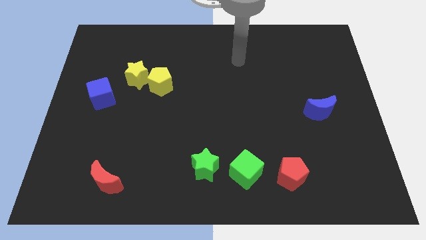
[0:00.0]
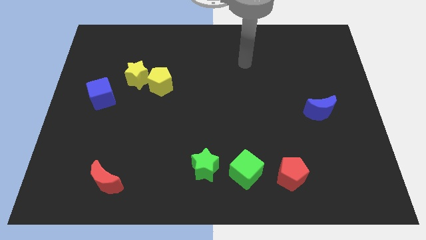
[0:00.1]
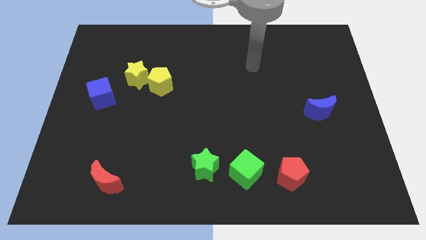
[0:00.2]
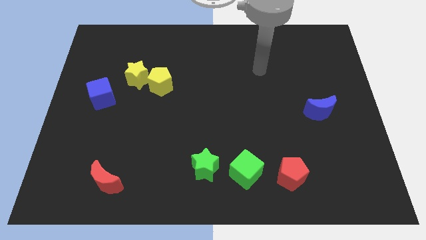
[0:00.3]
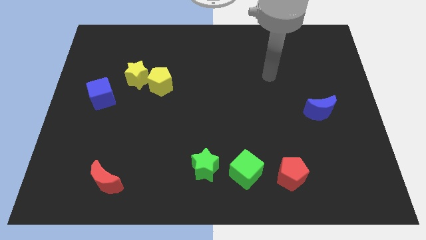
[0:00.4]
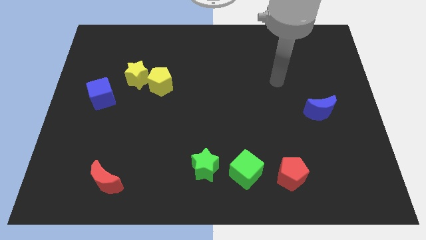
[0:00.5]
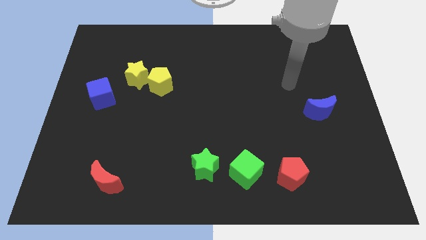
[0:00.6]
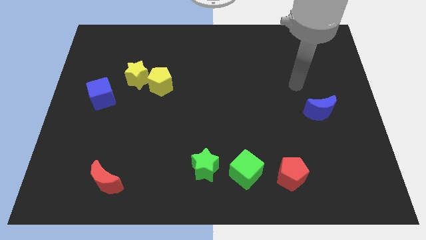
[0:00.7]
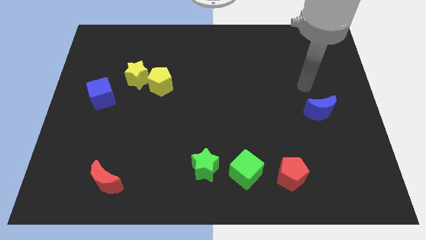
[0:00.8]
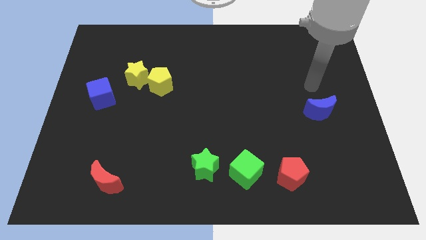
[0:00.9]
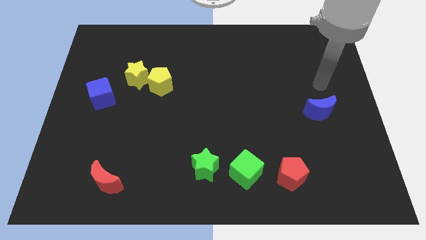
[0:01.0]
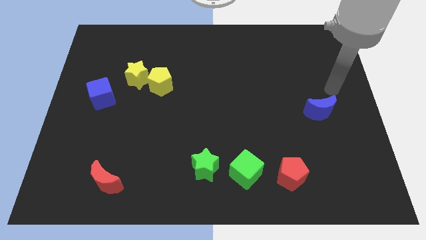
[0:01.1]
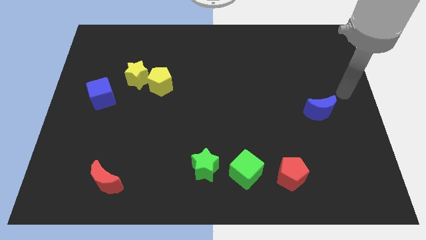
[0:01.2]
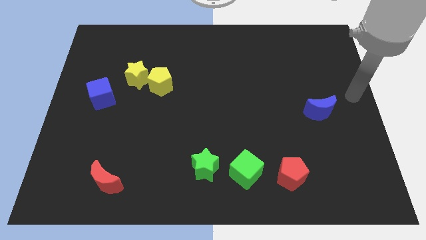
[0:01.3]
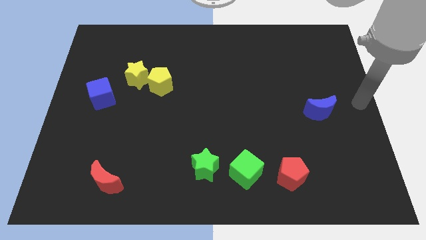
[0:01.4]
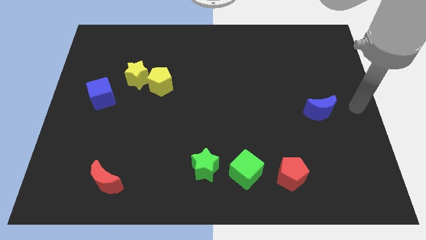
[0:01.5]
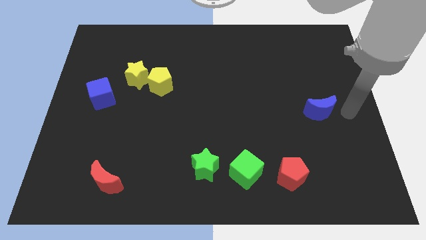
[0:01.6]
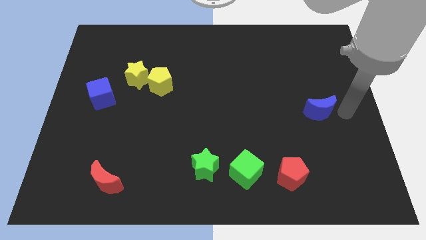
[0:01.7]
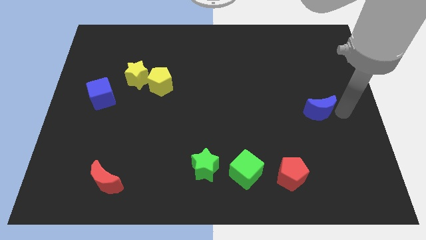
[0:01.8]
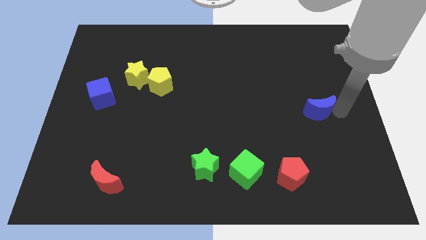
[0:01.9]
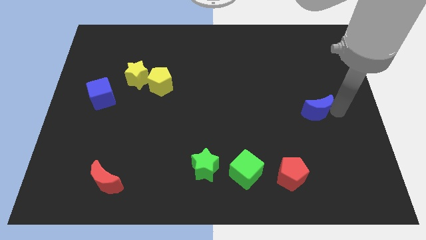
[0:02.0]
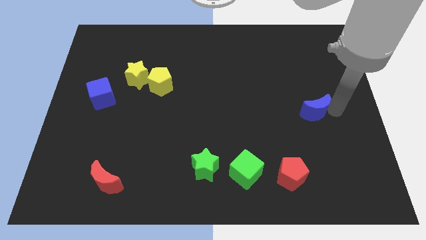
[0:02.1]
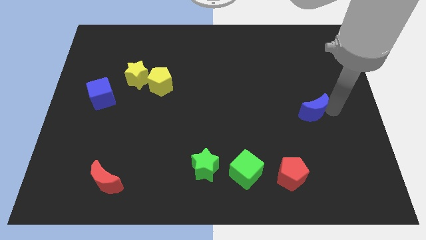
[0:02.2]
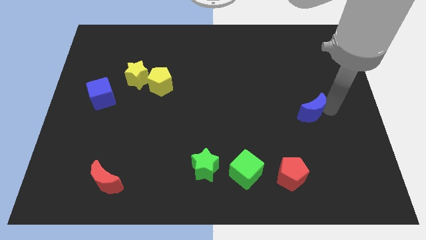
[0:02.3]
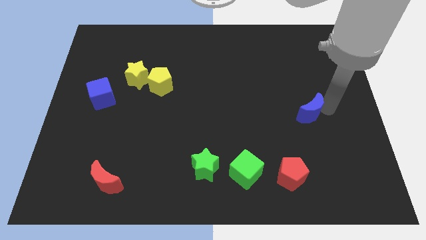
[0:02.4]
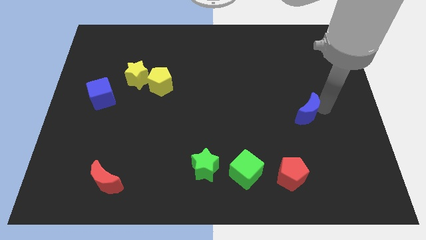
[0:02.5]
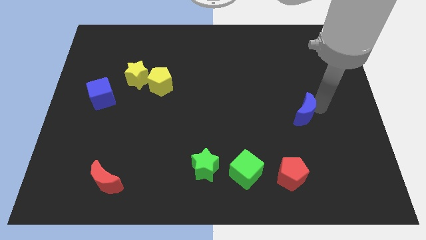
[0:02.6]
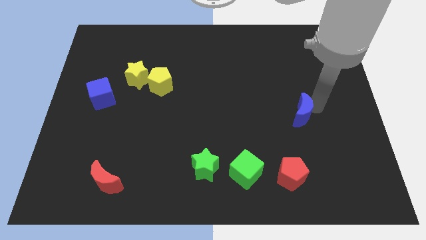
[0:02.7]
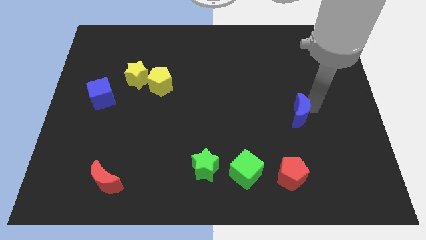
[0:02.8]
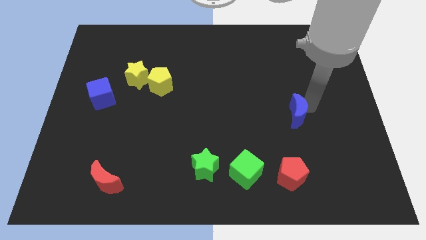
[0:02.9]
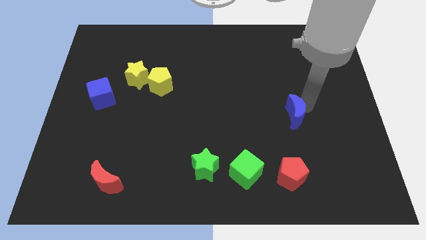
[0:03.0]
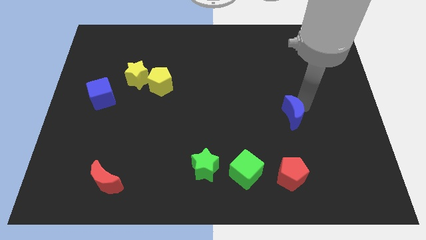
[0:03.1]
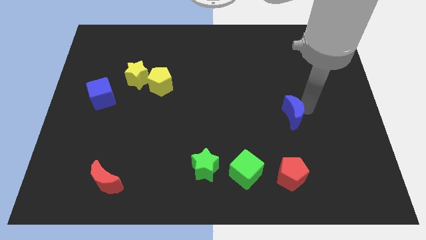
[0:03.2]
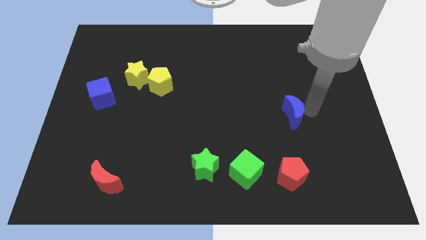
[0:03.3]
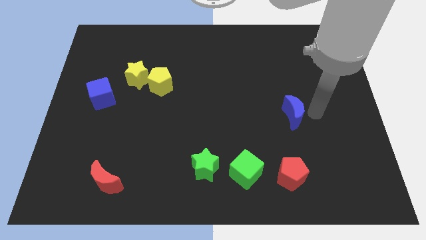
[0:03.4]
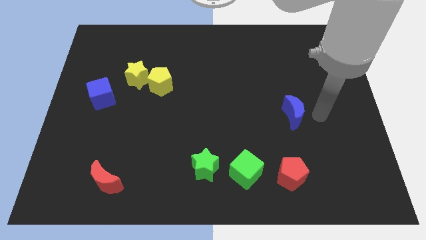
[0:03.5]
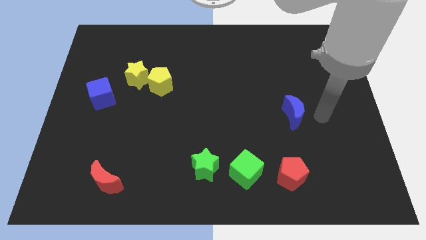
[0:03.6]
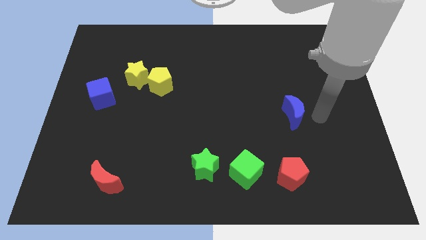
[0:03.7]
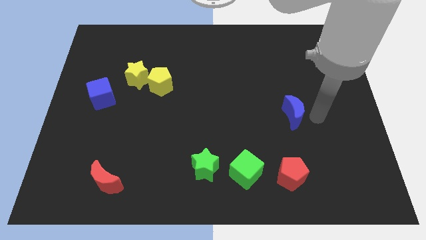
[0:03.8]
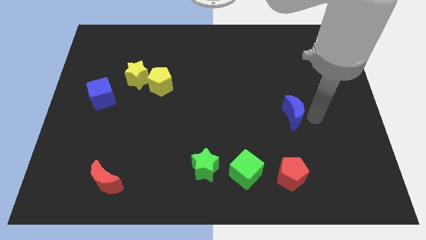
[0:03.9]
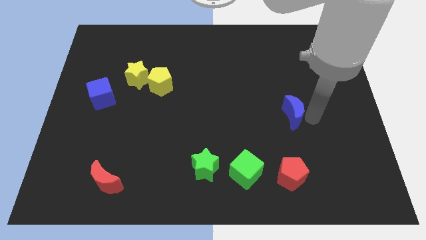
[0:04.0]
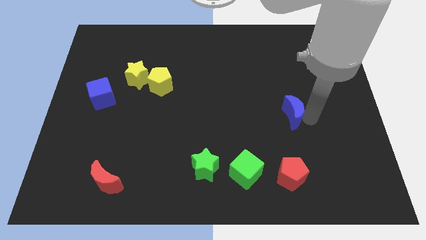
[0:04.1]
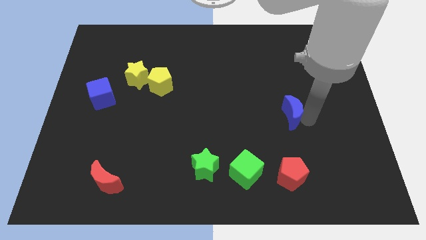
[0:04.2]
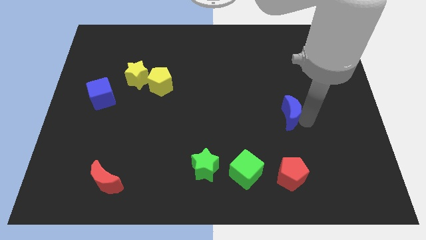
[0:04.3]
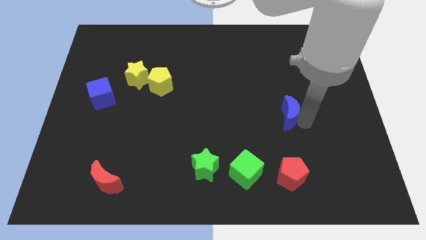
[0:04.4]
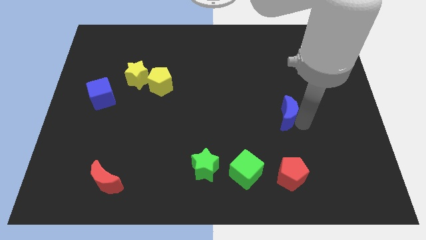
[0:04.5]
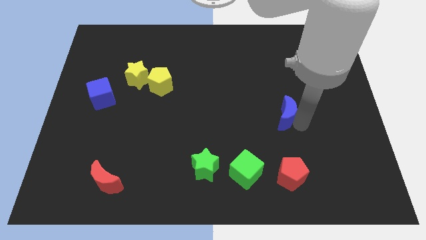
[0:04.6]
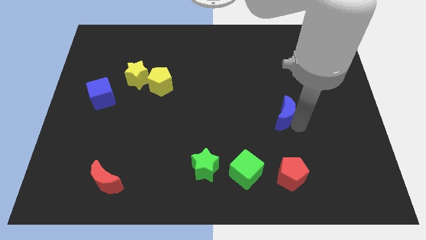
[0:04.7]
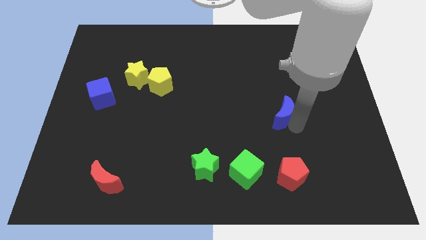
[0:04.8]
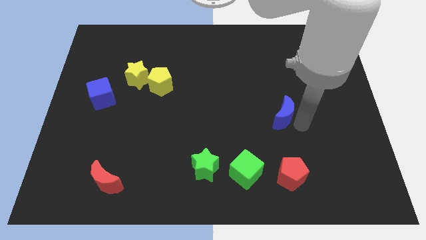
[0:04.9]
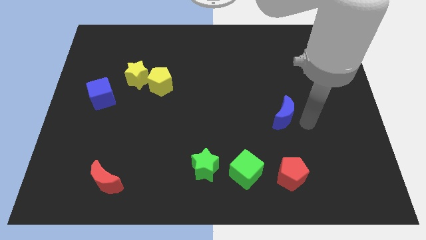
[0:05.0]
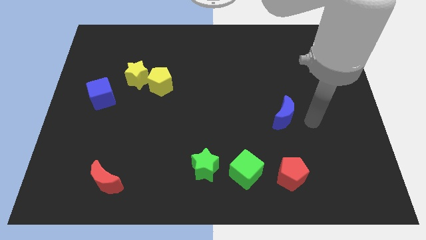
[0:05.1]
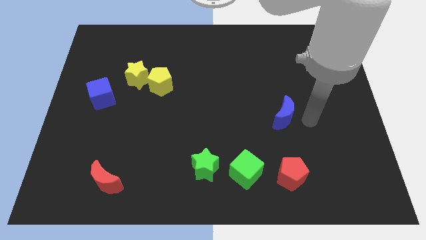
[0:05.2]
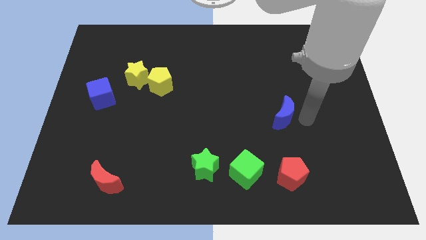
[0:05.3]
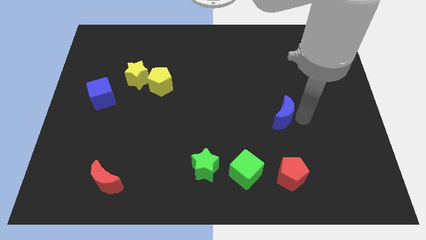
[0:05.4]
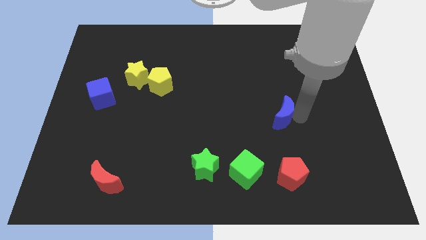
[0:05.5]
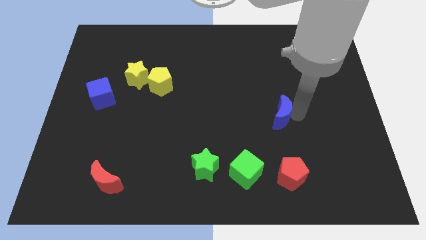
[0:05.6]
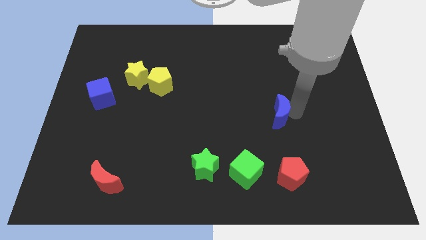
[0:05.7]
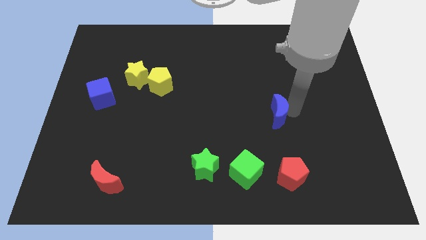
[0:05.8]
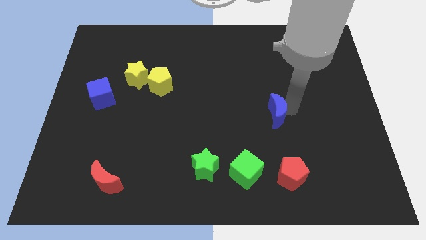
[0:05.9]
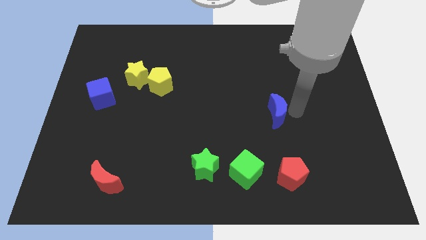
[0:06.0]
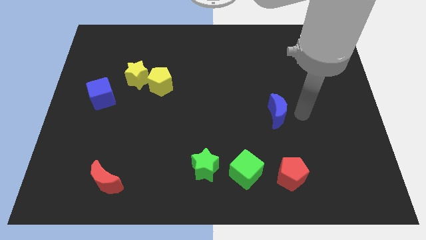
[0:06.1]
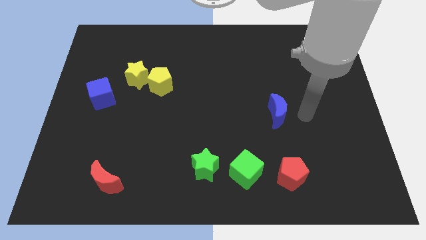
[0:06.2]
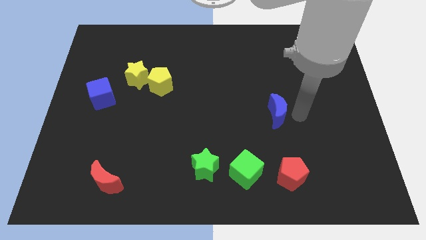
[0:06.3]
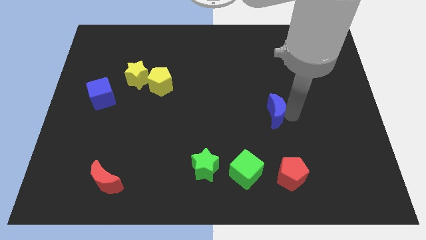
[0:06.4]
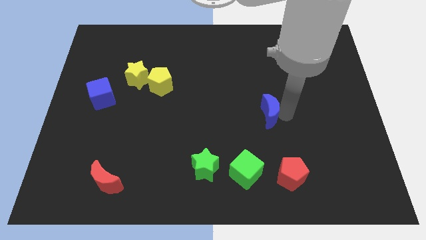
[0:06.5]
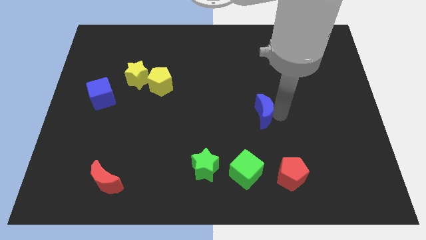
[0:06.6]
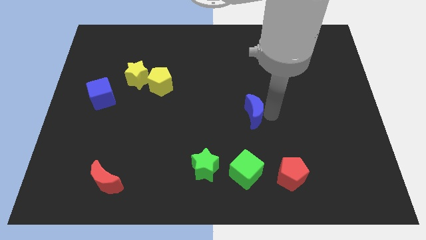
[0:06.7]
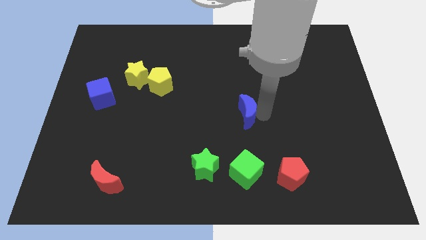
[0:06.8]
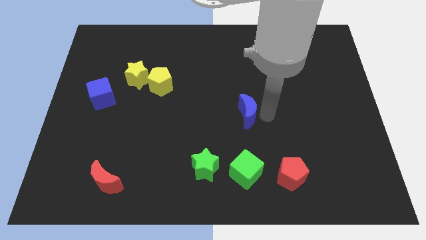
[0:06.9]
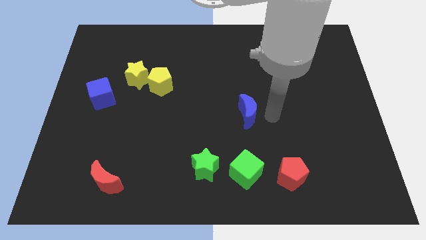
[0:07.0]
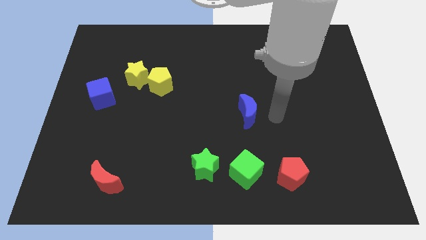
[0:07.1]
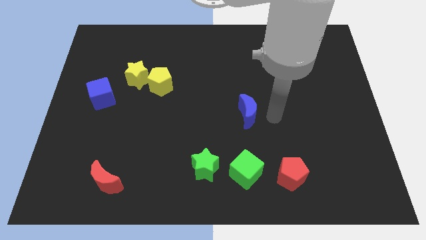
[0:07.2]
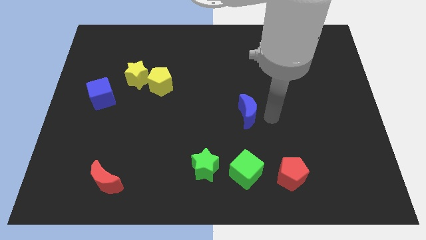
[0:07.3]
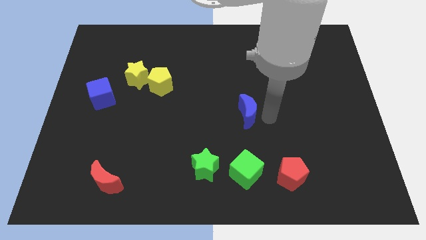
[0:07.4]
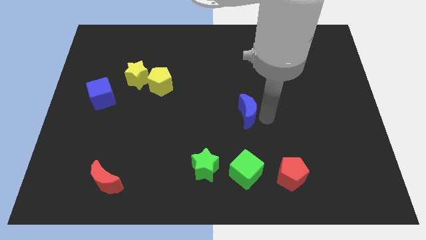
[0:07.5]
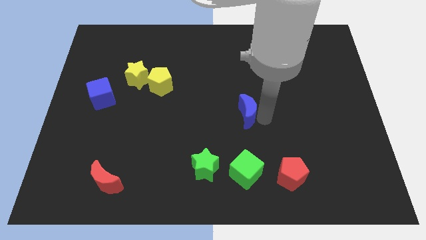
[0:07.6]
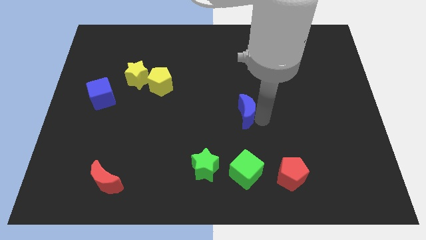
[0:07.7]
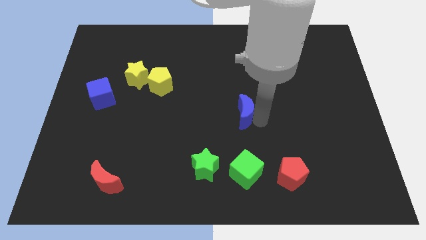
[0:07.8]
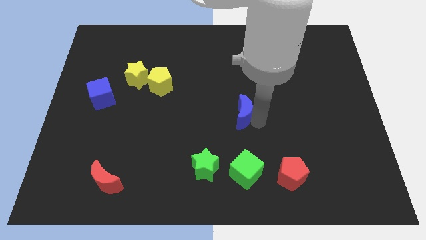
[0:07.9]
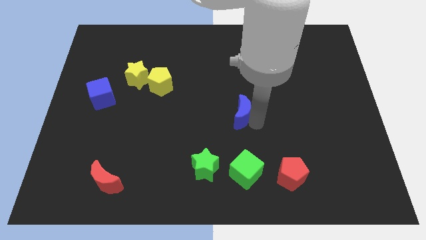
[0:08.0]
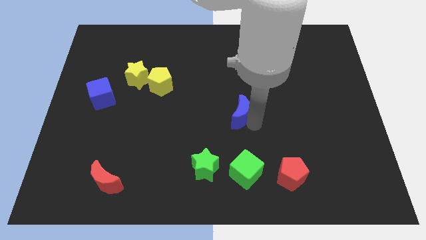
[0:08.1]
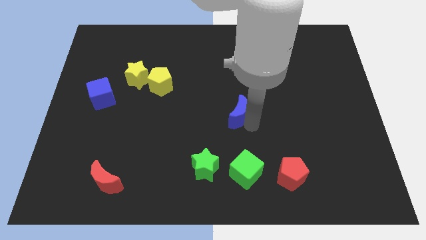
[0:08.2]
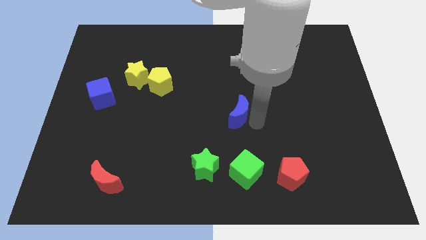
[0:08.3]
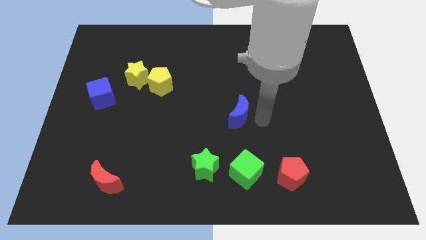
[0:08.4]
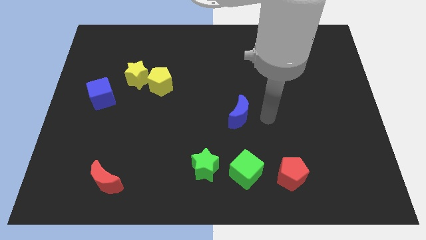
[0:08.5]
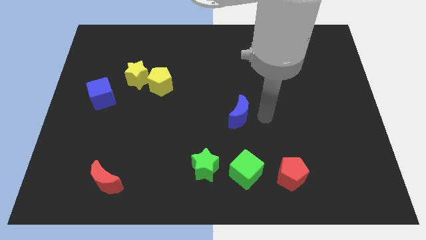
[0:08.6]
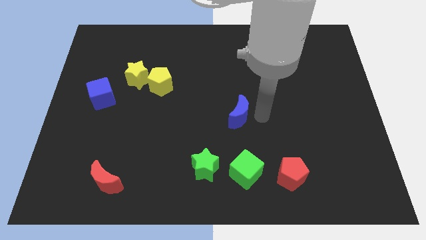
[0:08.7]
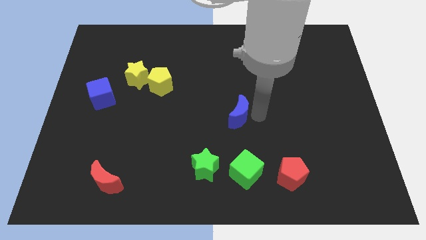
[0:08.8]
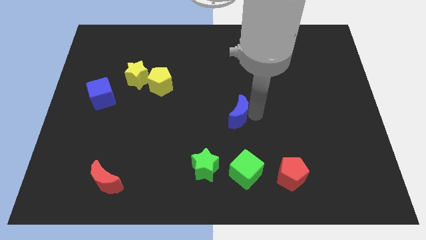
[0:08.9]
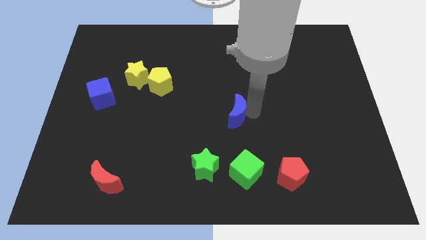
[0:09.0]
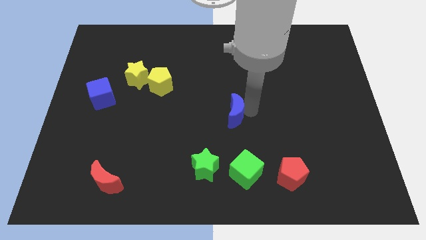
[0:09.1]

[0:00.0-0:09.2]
slide the blue moon to the left
